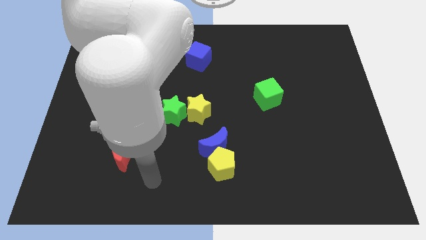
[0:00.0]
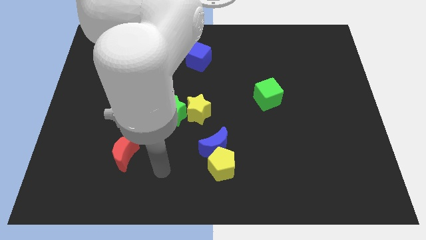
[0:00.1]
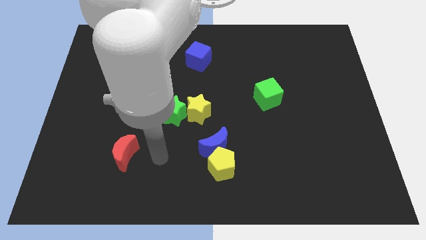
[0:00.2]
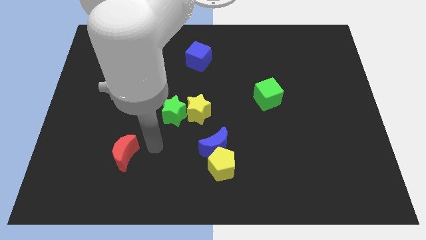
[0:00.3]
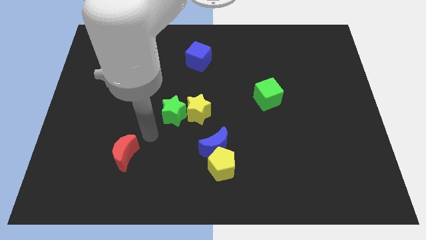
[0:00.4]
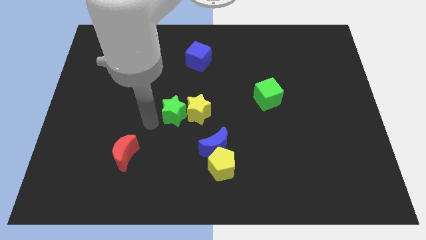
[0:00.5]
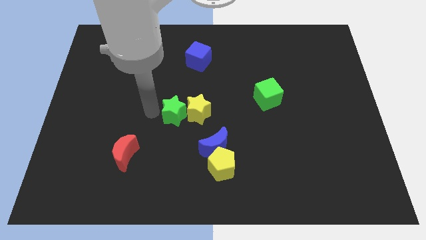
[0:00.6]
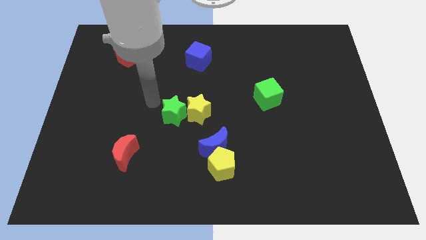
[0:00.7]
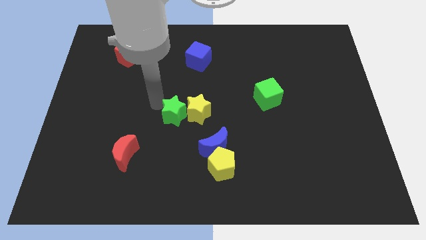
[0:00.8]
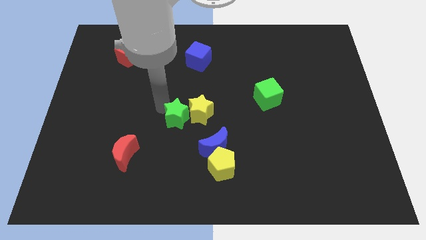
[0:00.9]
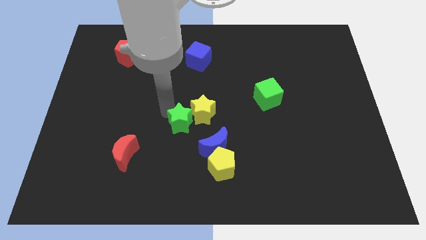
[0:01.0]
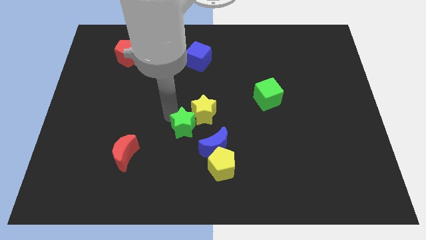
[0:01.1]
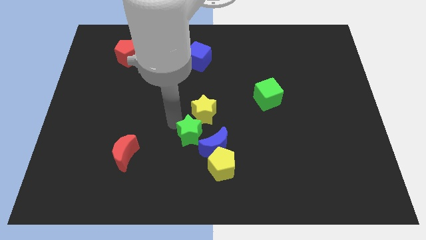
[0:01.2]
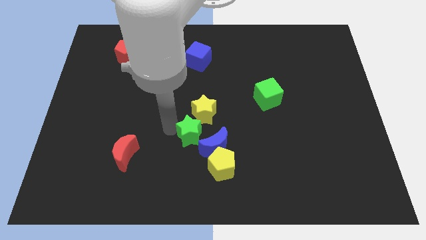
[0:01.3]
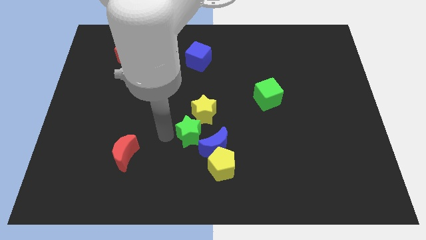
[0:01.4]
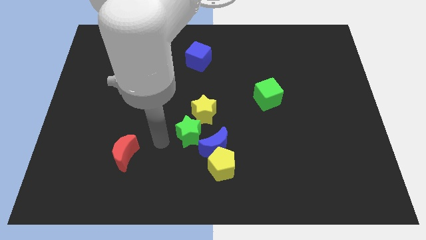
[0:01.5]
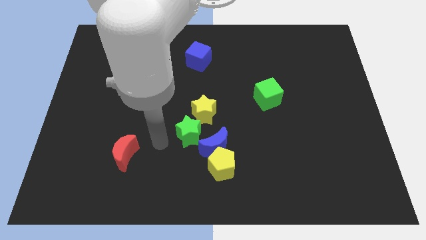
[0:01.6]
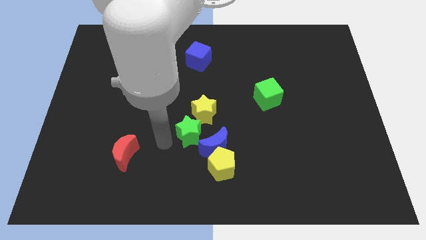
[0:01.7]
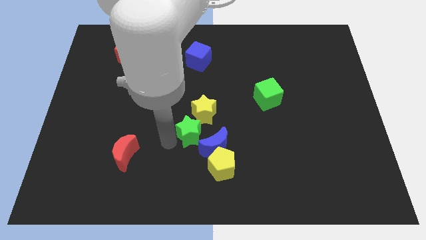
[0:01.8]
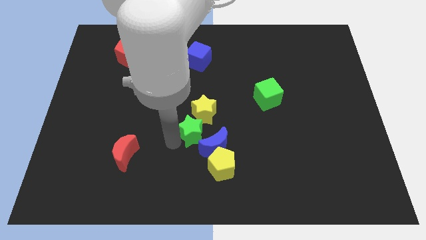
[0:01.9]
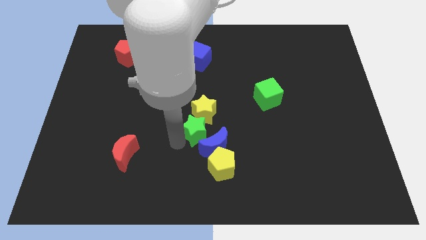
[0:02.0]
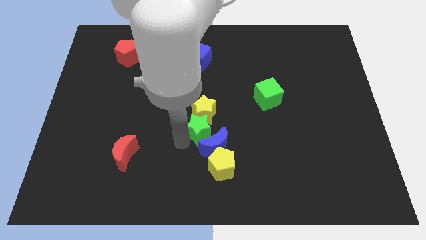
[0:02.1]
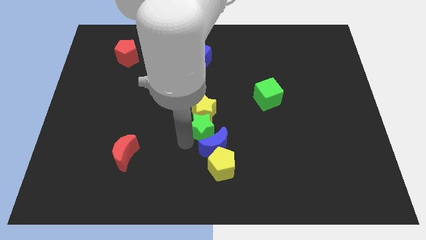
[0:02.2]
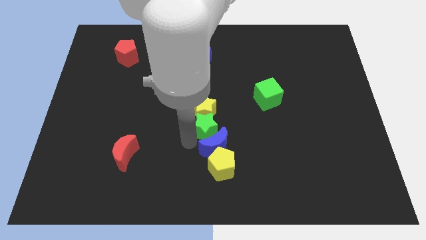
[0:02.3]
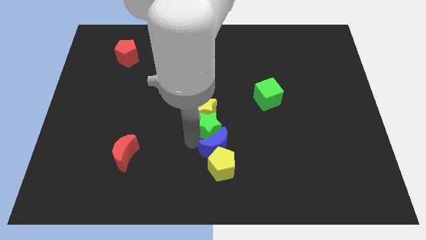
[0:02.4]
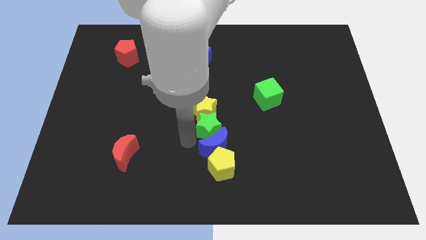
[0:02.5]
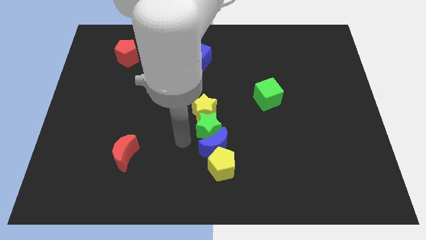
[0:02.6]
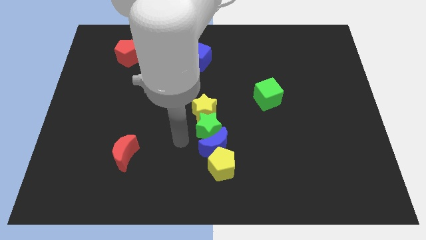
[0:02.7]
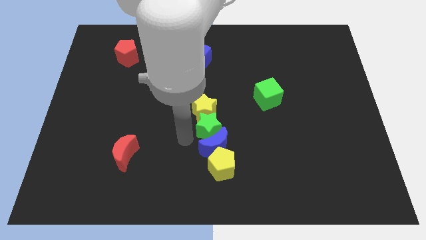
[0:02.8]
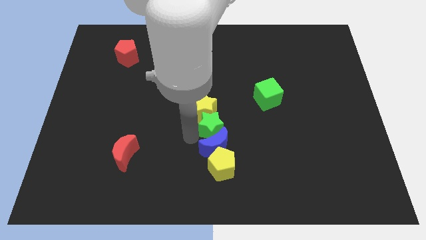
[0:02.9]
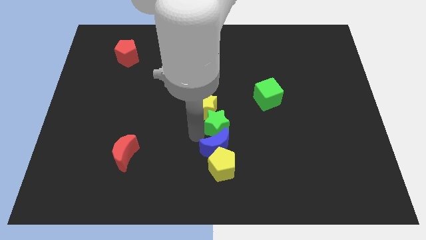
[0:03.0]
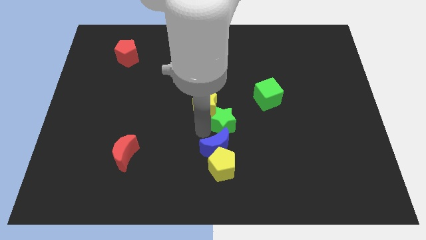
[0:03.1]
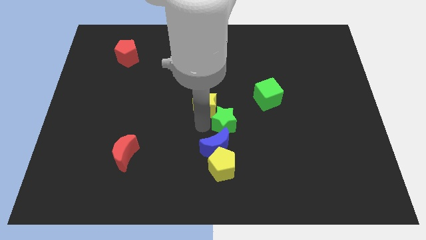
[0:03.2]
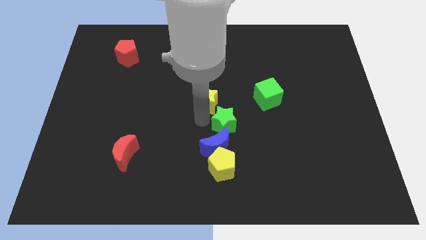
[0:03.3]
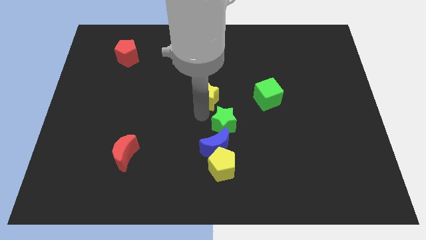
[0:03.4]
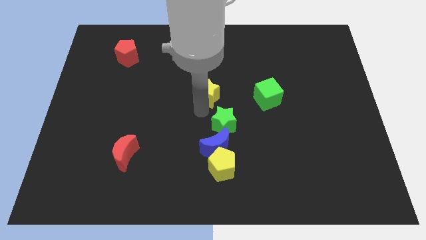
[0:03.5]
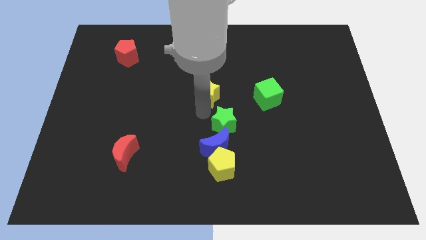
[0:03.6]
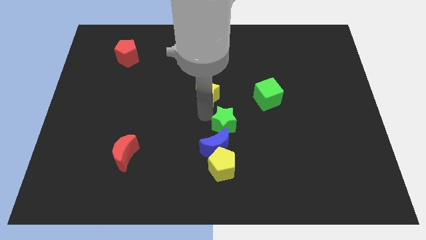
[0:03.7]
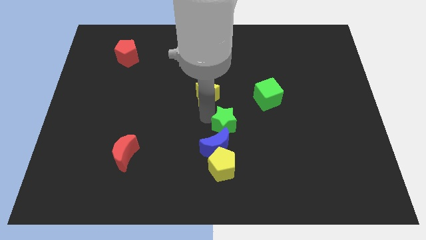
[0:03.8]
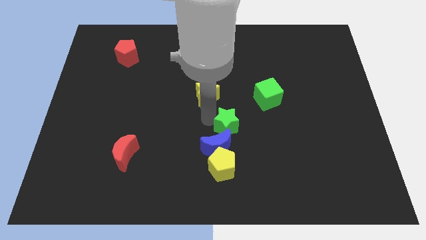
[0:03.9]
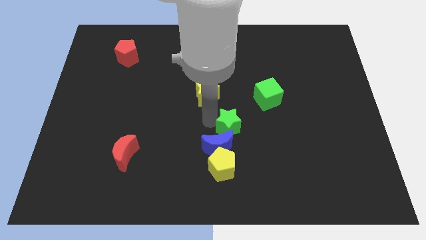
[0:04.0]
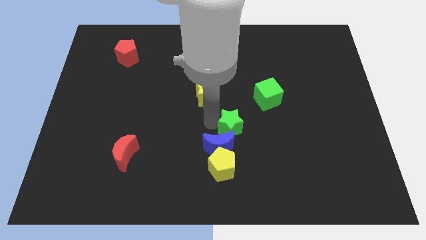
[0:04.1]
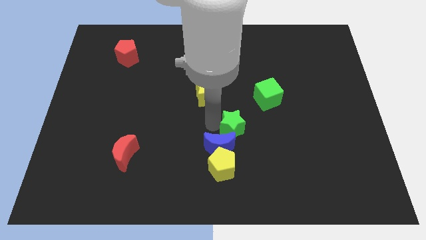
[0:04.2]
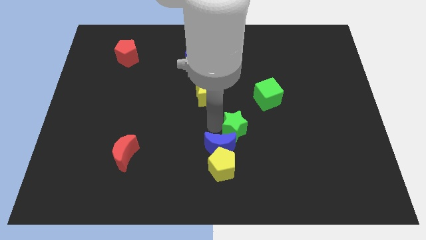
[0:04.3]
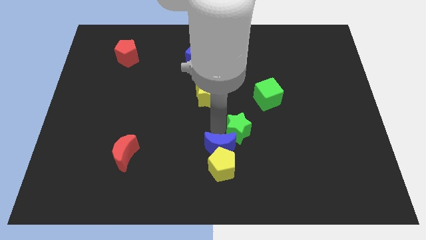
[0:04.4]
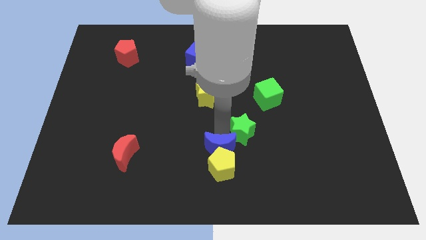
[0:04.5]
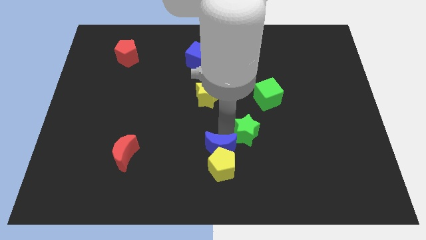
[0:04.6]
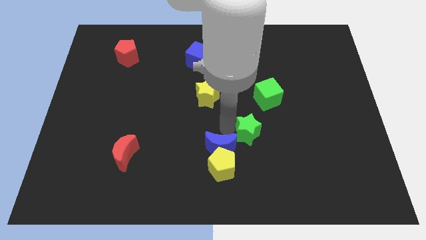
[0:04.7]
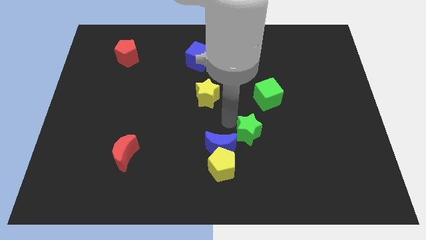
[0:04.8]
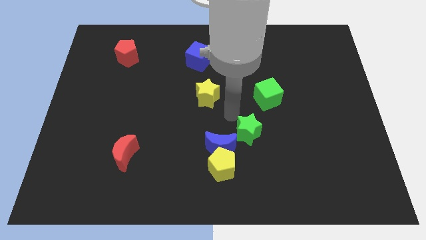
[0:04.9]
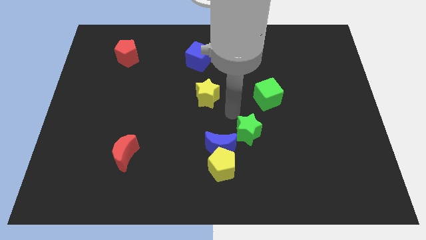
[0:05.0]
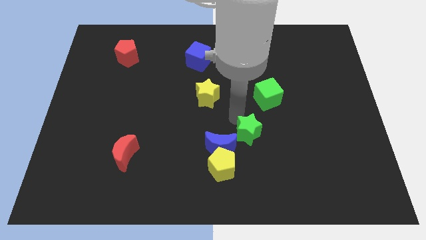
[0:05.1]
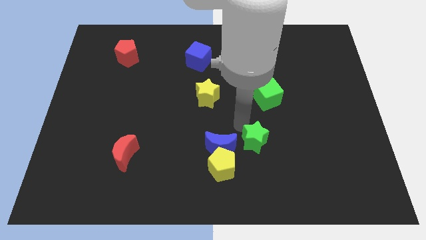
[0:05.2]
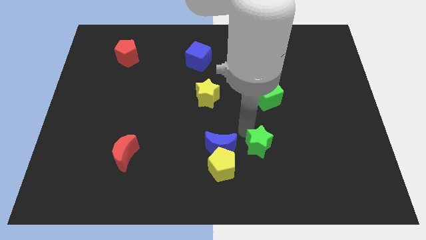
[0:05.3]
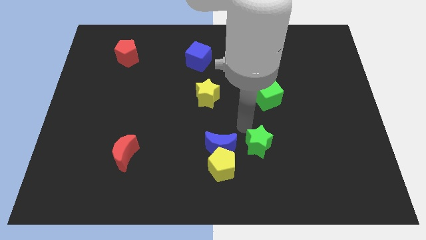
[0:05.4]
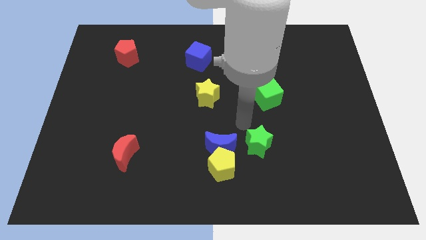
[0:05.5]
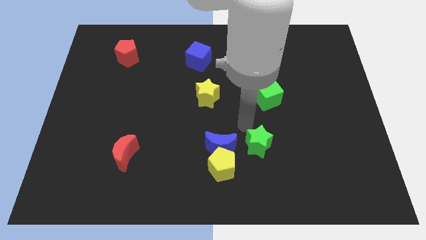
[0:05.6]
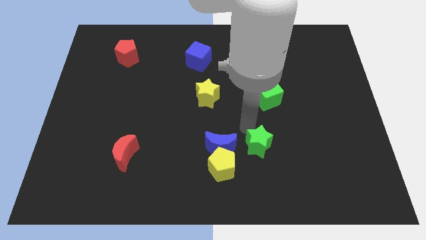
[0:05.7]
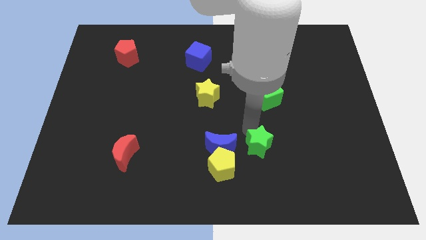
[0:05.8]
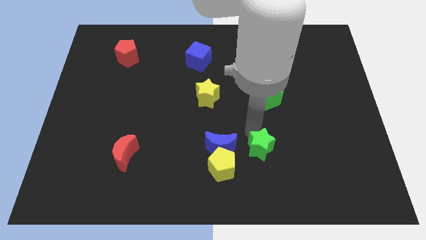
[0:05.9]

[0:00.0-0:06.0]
put the green star to the right of the yellow pentagon

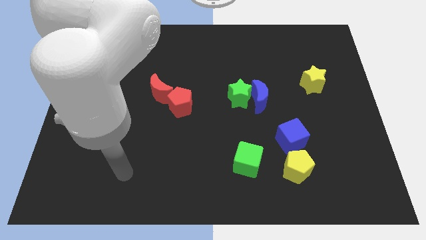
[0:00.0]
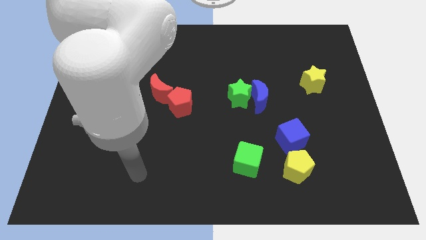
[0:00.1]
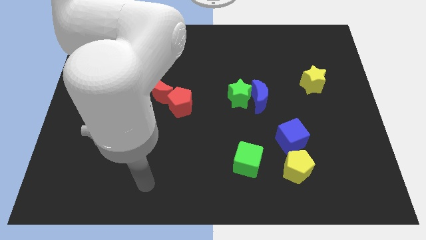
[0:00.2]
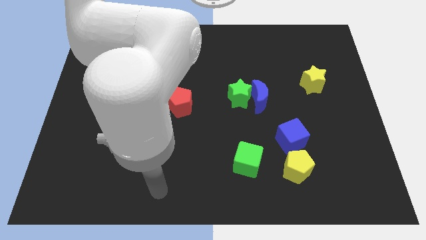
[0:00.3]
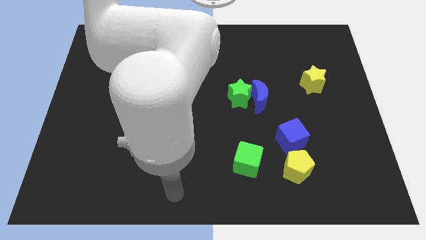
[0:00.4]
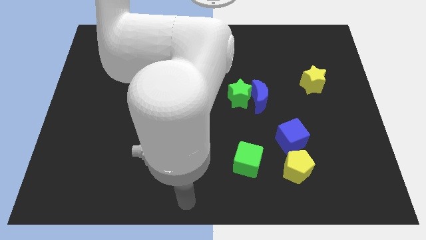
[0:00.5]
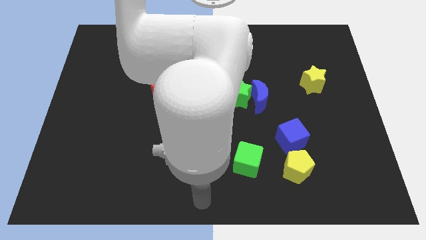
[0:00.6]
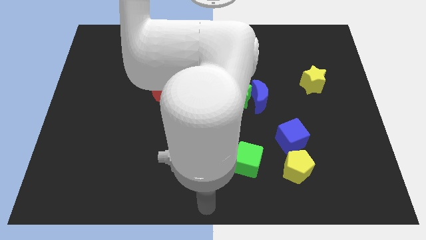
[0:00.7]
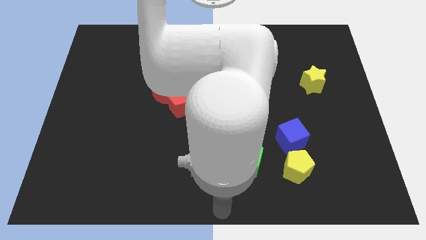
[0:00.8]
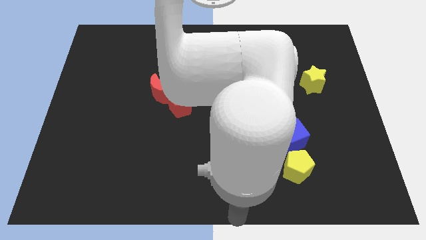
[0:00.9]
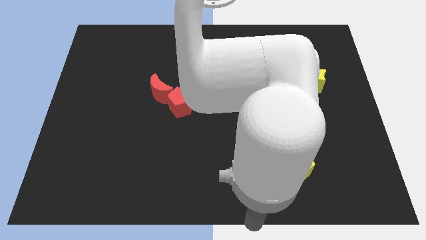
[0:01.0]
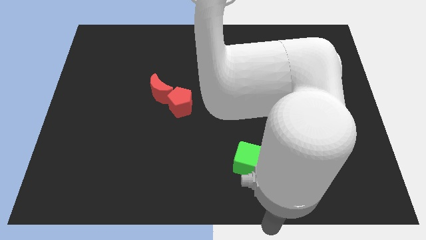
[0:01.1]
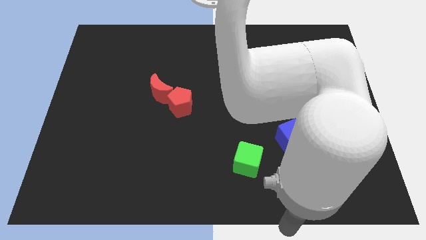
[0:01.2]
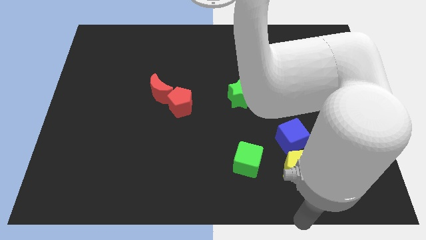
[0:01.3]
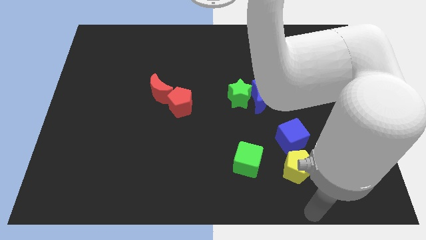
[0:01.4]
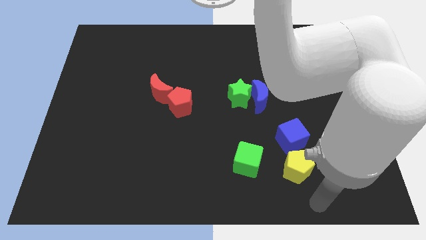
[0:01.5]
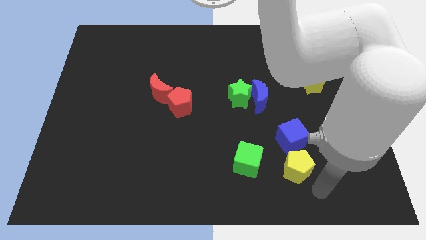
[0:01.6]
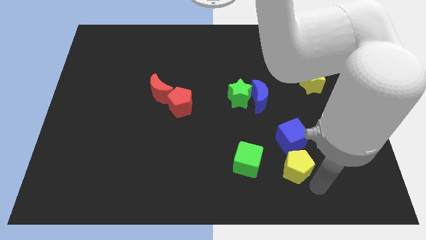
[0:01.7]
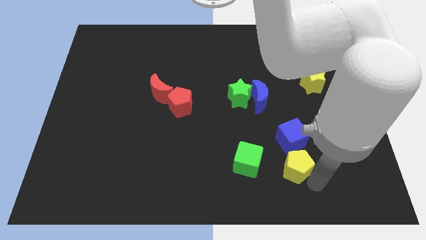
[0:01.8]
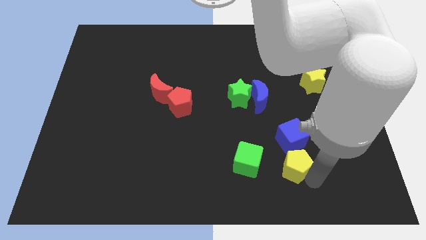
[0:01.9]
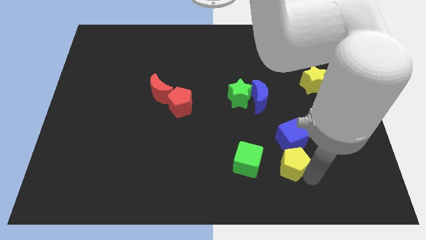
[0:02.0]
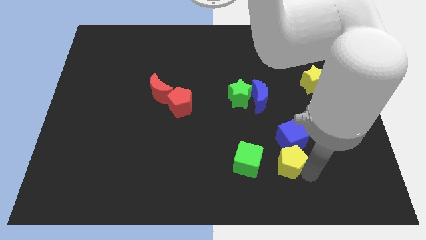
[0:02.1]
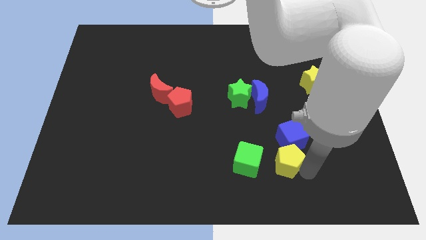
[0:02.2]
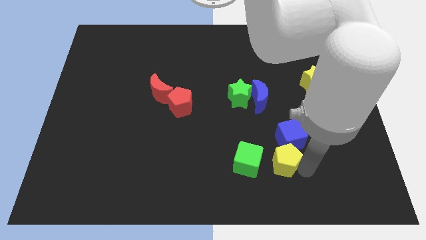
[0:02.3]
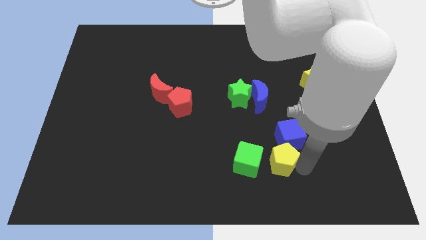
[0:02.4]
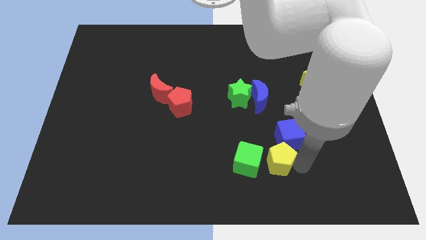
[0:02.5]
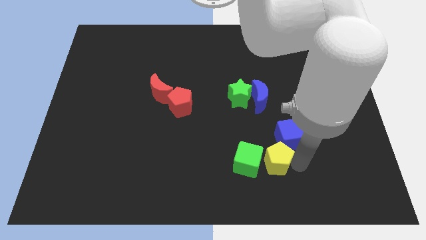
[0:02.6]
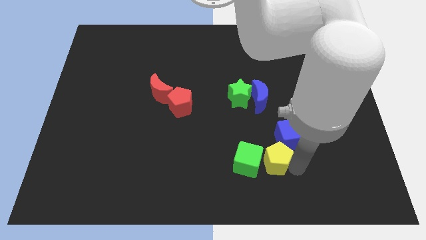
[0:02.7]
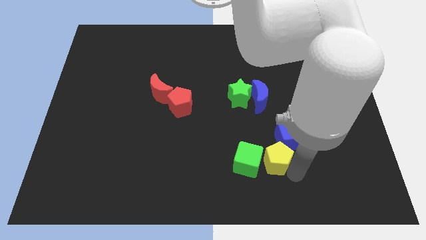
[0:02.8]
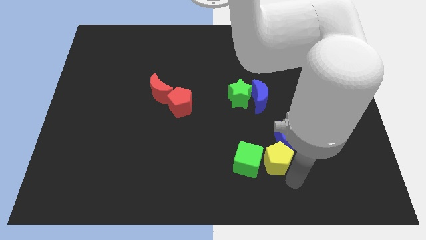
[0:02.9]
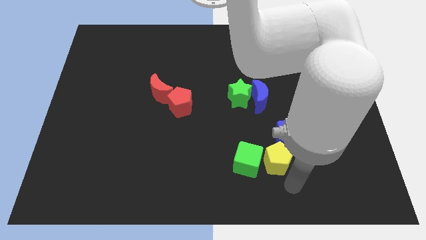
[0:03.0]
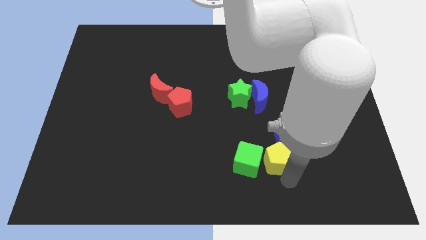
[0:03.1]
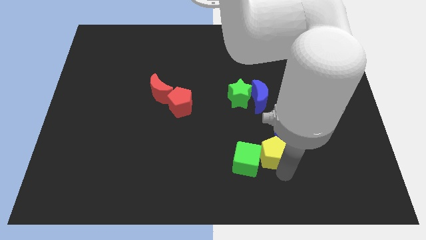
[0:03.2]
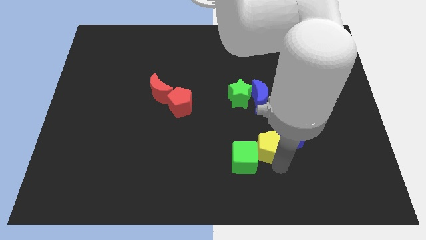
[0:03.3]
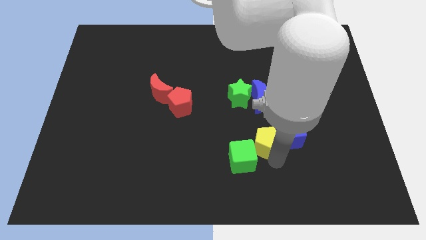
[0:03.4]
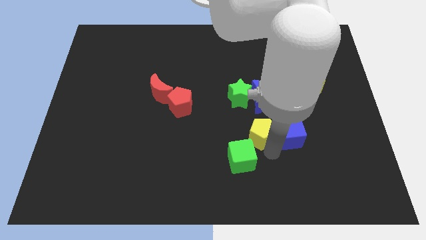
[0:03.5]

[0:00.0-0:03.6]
move the yellow pentagon to the top side of the green cube
